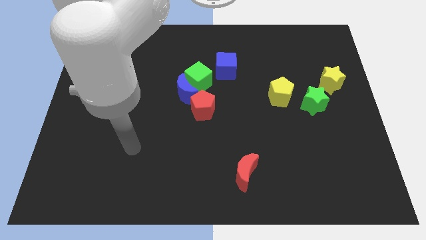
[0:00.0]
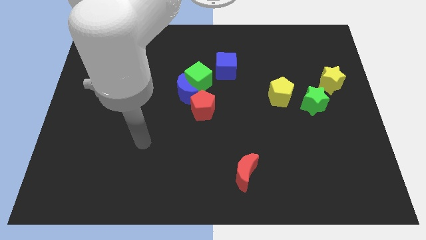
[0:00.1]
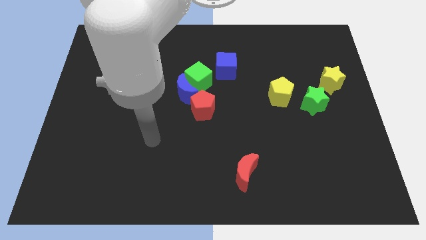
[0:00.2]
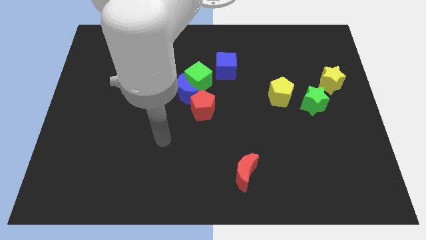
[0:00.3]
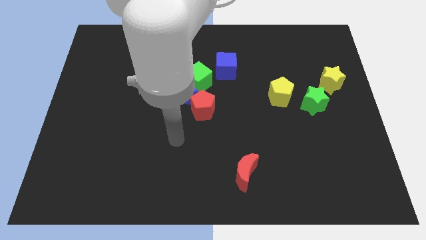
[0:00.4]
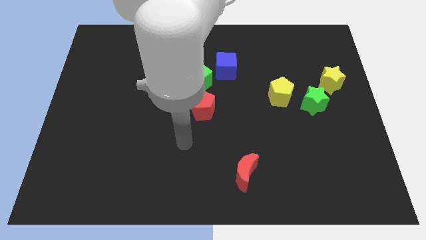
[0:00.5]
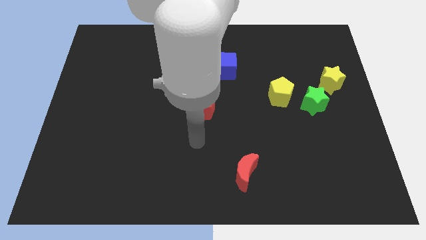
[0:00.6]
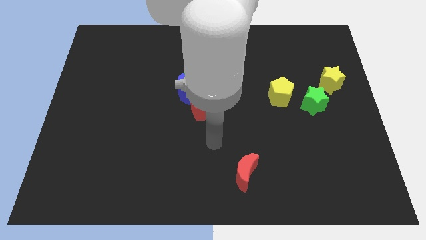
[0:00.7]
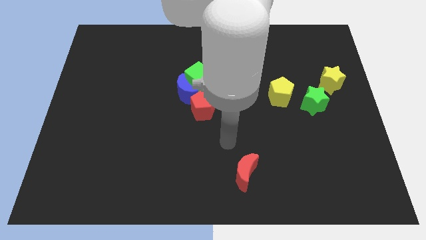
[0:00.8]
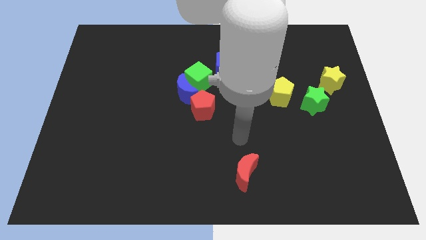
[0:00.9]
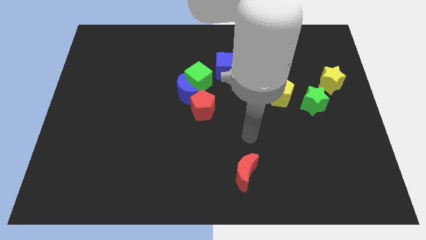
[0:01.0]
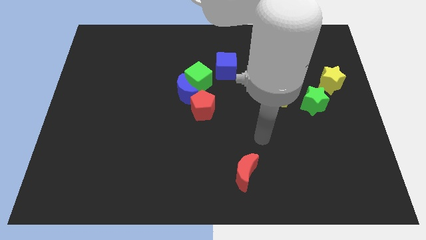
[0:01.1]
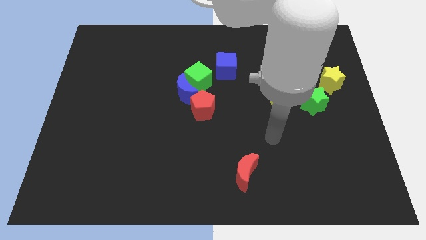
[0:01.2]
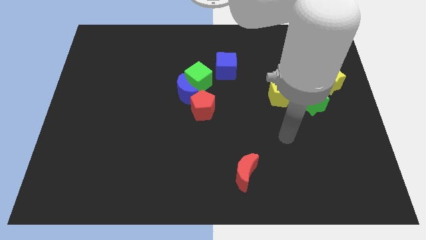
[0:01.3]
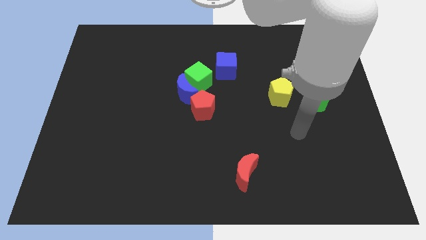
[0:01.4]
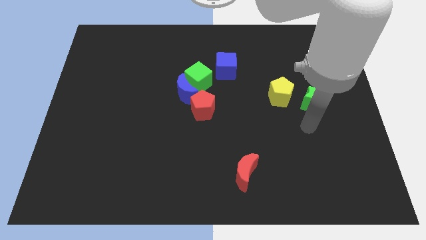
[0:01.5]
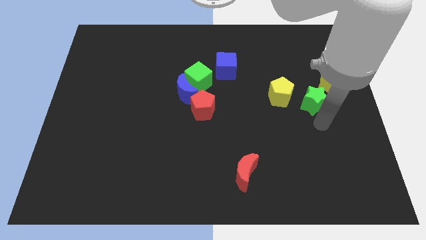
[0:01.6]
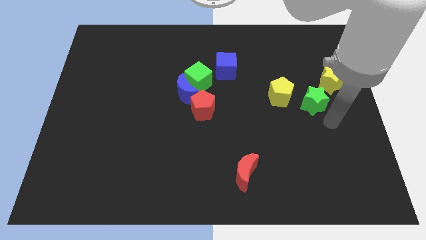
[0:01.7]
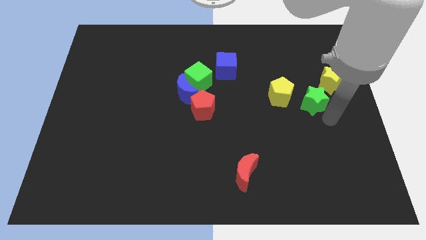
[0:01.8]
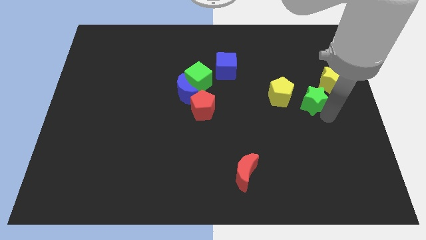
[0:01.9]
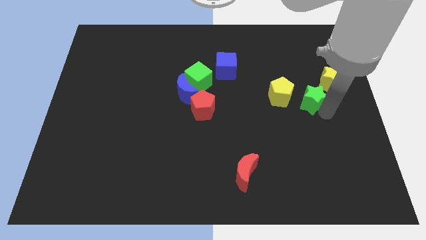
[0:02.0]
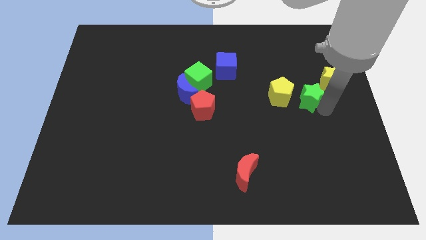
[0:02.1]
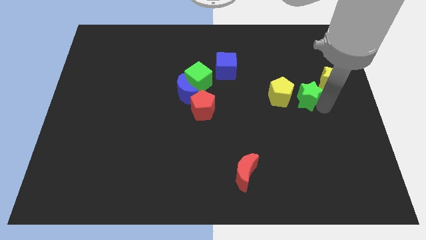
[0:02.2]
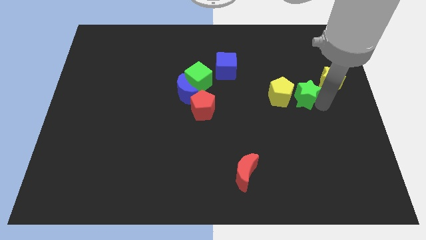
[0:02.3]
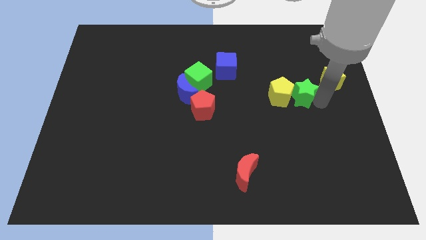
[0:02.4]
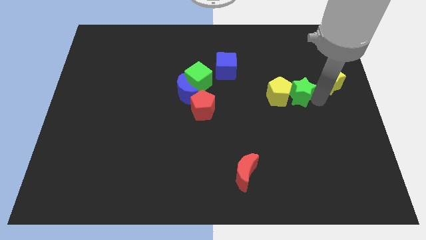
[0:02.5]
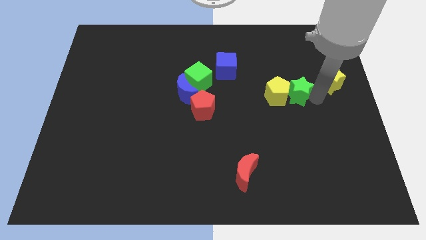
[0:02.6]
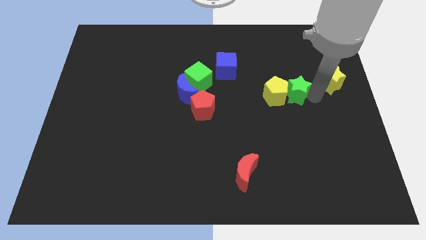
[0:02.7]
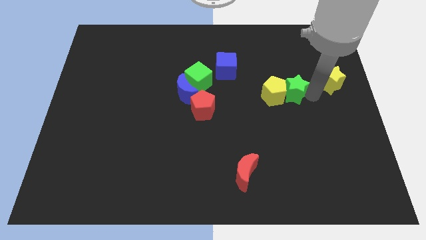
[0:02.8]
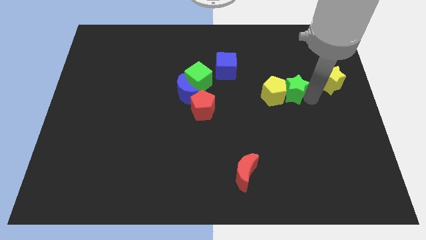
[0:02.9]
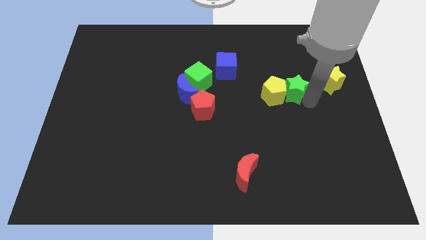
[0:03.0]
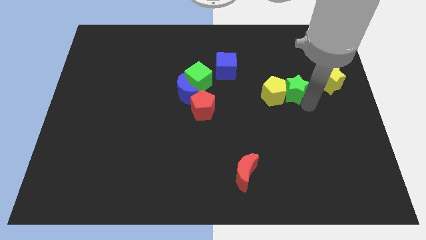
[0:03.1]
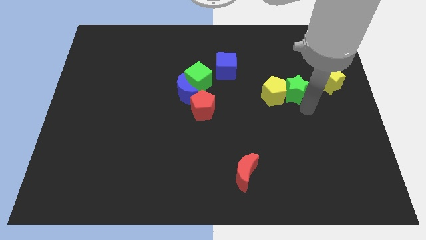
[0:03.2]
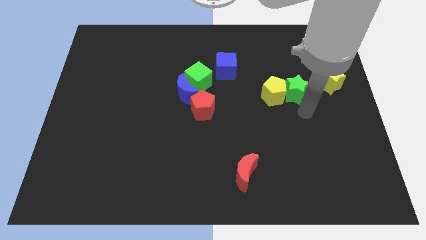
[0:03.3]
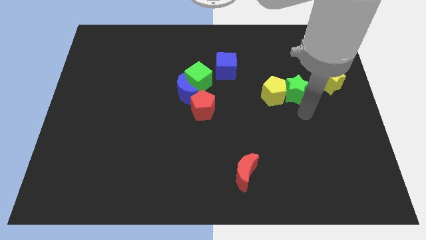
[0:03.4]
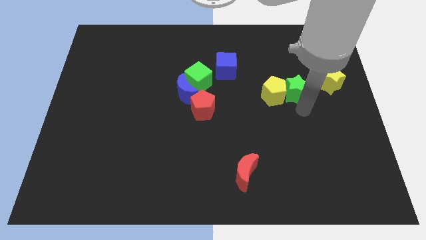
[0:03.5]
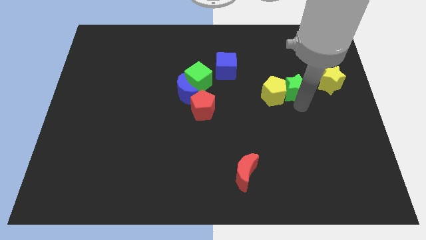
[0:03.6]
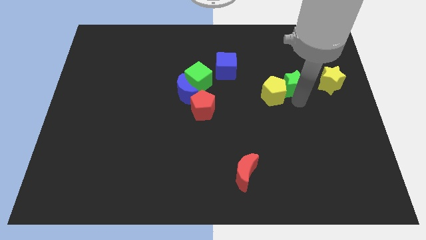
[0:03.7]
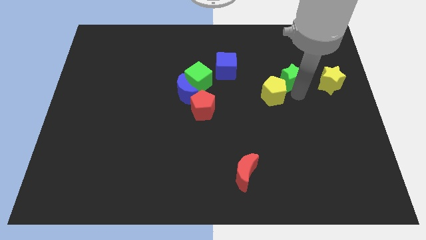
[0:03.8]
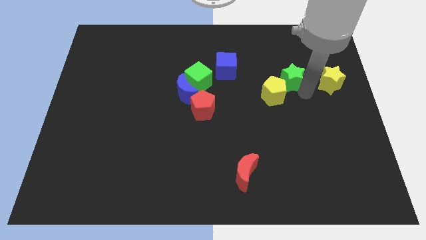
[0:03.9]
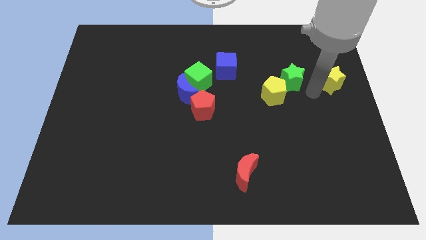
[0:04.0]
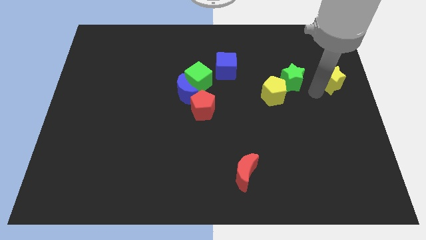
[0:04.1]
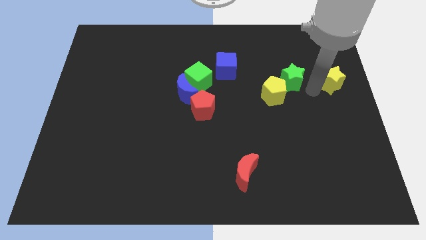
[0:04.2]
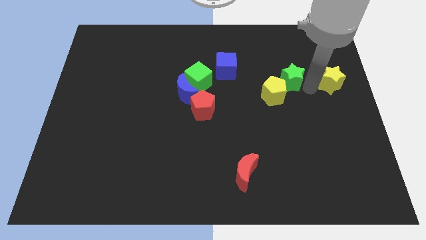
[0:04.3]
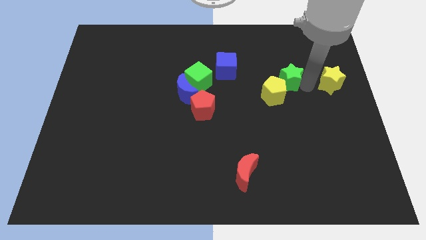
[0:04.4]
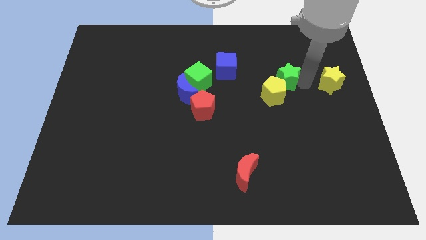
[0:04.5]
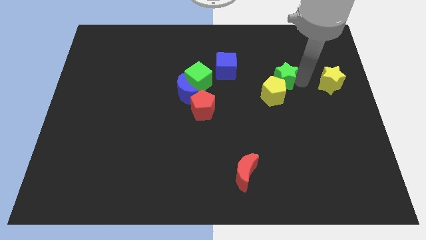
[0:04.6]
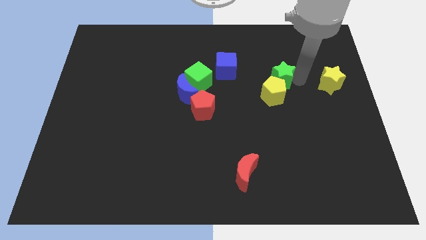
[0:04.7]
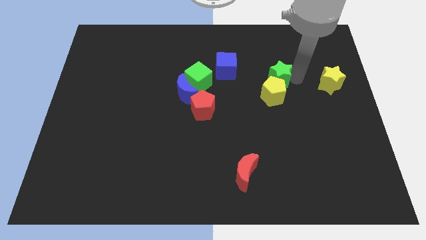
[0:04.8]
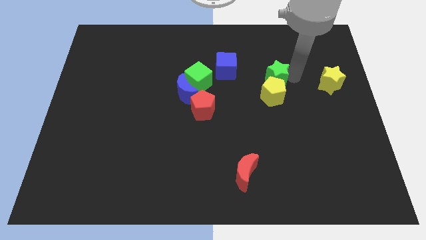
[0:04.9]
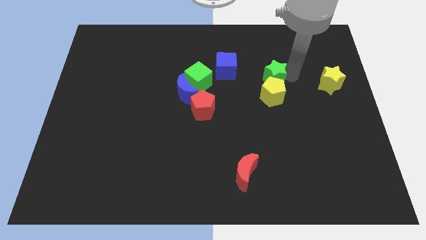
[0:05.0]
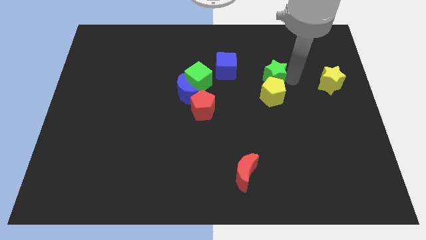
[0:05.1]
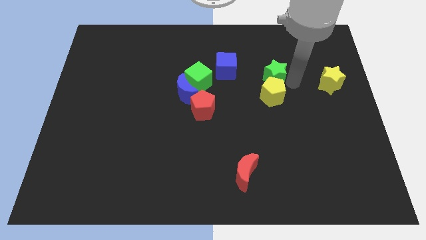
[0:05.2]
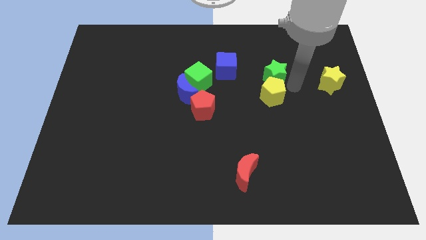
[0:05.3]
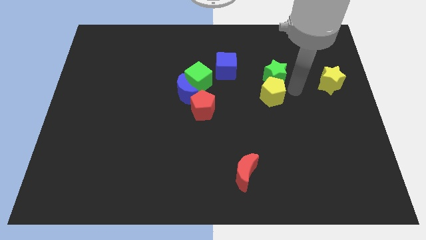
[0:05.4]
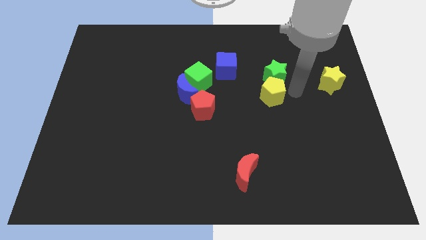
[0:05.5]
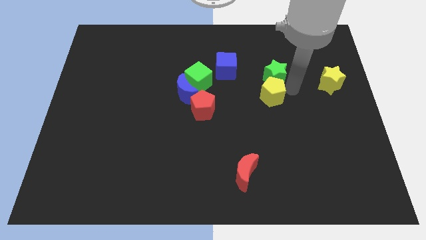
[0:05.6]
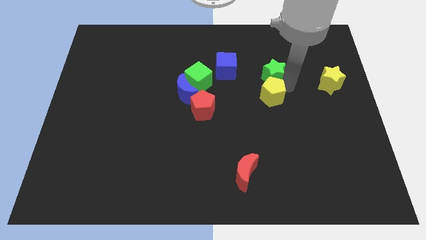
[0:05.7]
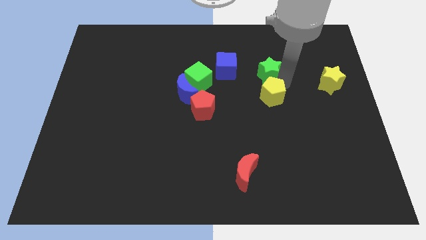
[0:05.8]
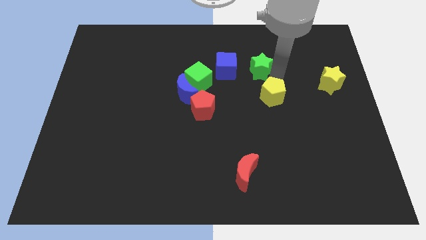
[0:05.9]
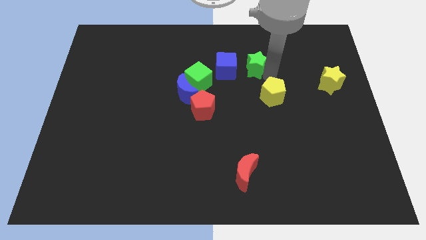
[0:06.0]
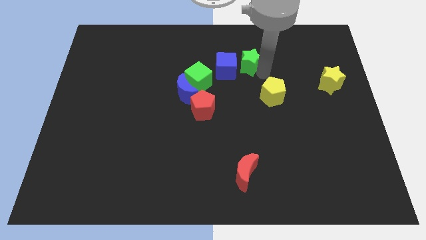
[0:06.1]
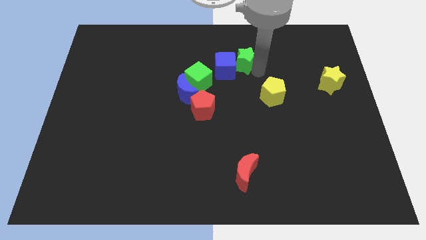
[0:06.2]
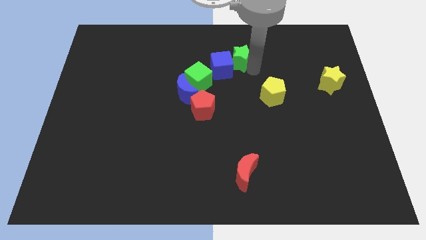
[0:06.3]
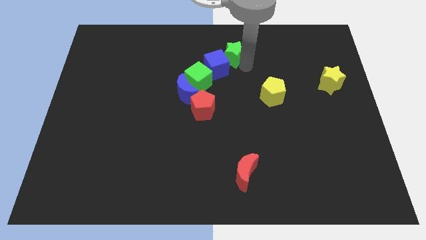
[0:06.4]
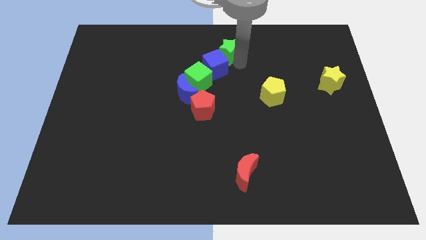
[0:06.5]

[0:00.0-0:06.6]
put the green star to the towards your base
